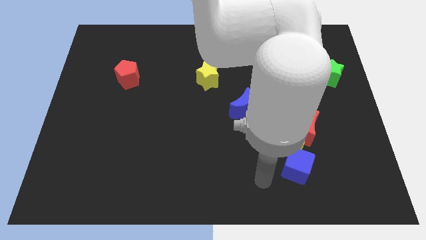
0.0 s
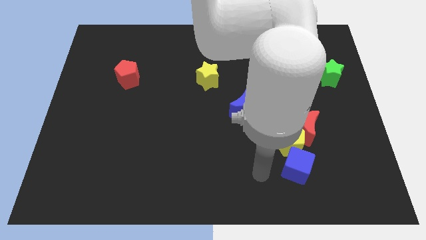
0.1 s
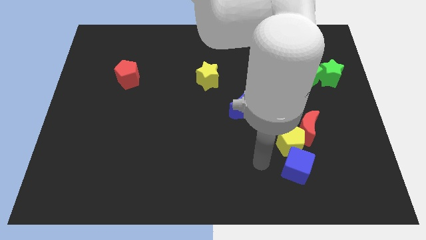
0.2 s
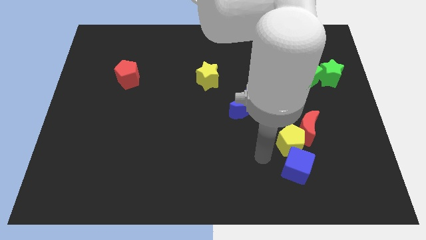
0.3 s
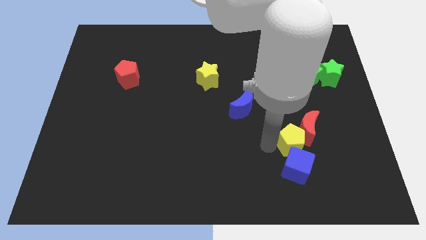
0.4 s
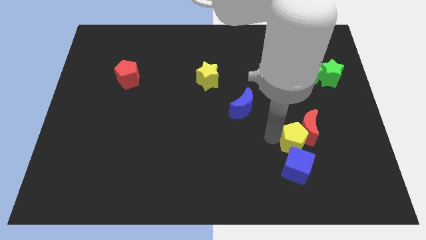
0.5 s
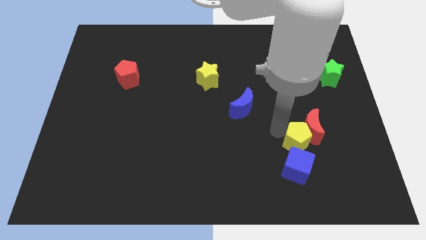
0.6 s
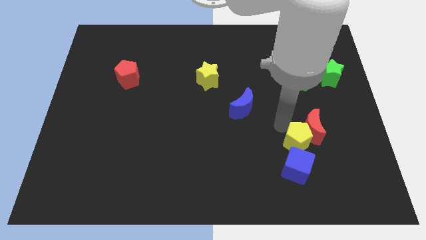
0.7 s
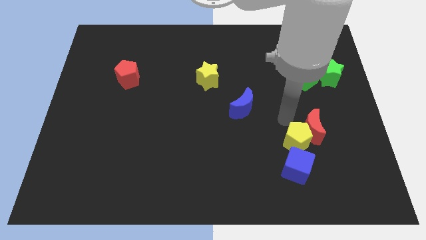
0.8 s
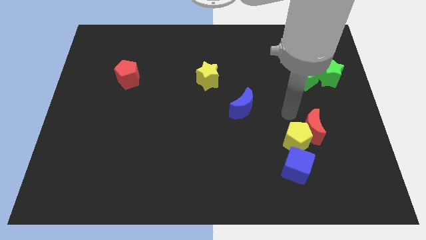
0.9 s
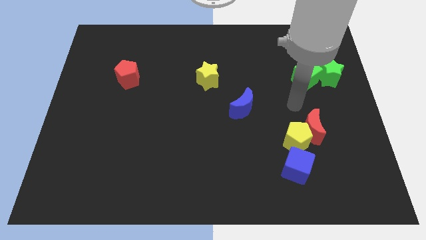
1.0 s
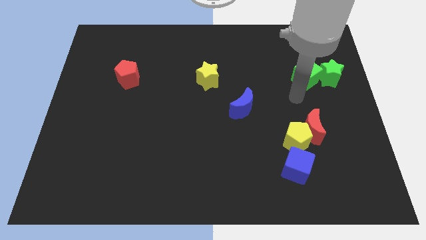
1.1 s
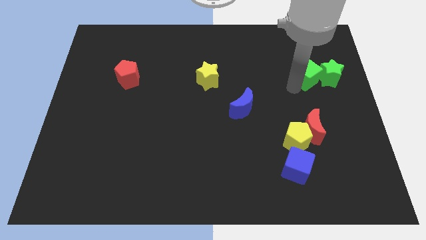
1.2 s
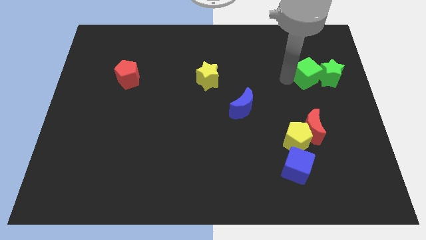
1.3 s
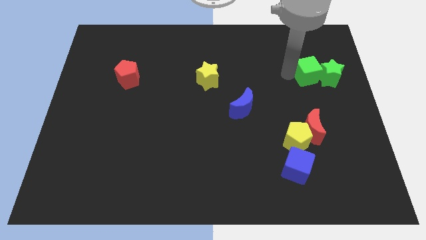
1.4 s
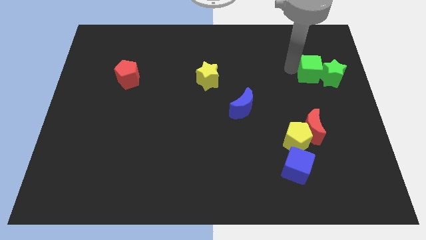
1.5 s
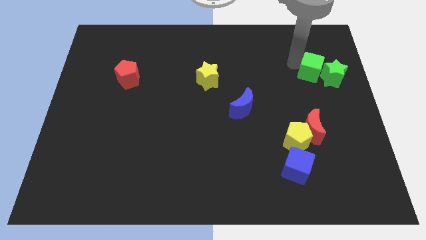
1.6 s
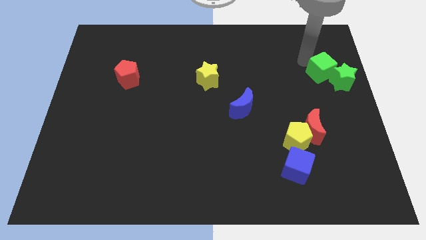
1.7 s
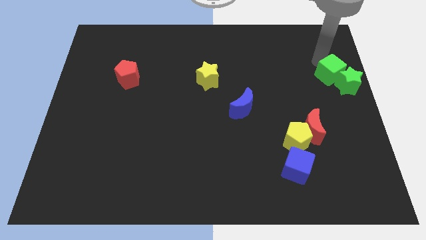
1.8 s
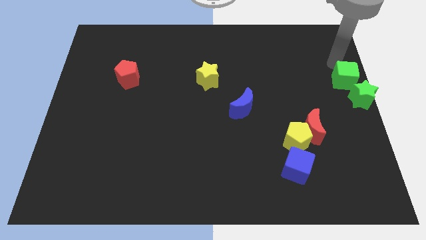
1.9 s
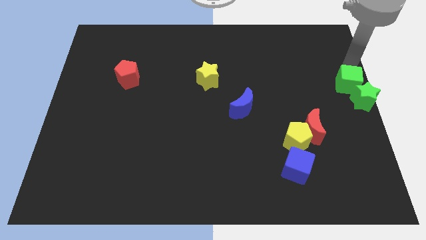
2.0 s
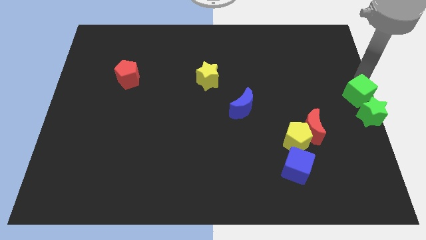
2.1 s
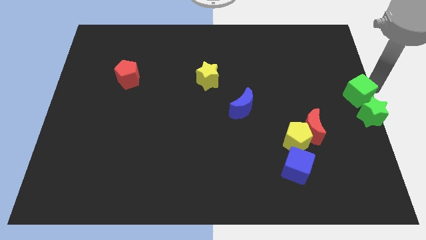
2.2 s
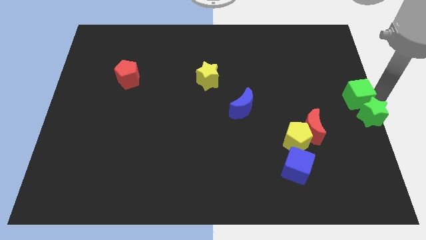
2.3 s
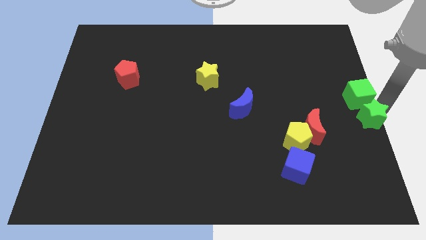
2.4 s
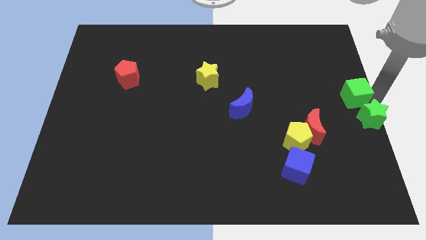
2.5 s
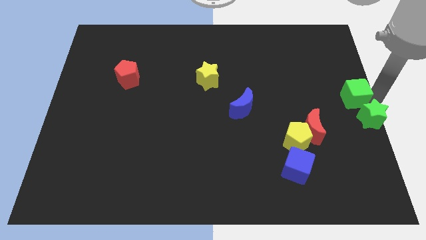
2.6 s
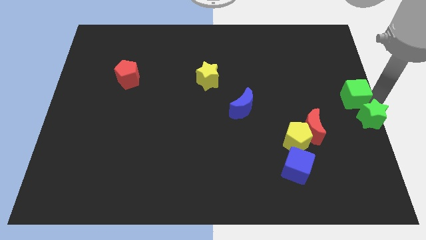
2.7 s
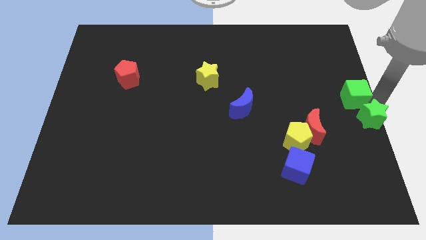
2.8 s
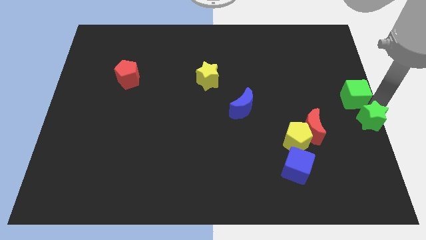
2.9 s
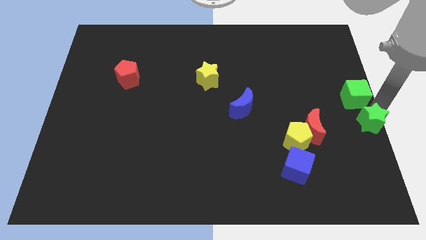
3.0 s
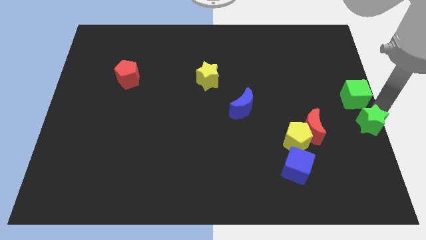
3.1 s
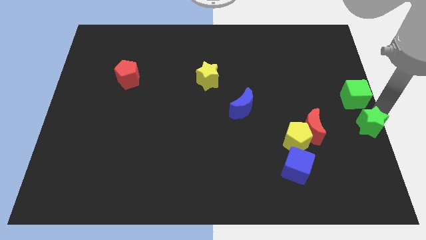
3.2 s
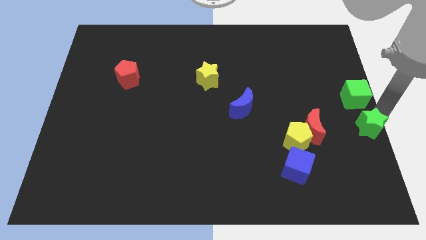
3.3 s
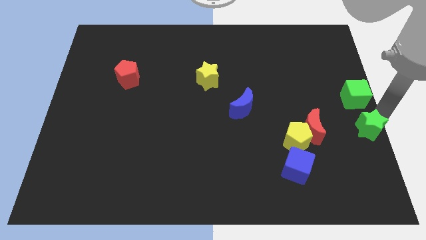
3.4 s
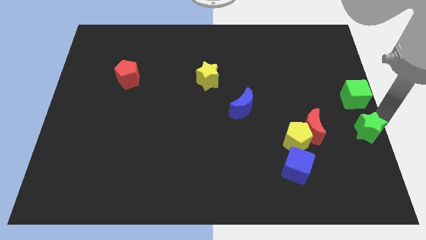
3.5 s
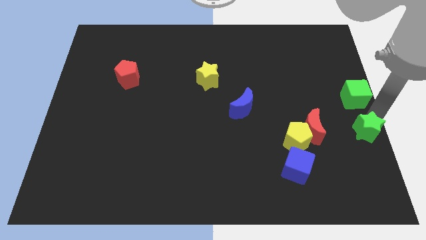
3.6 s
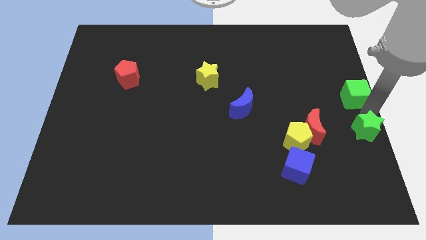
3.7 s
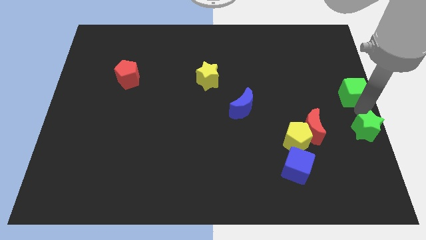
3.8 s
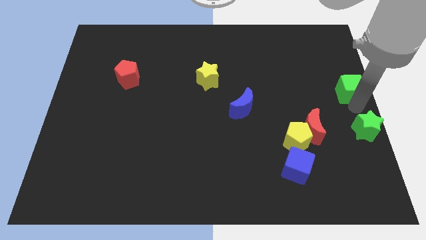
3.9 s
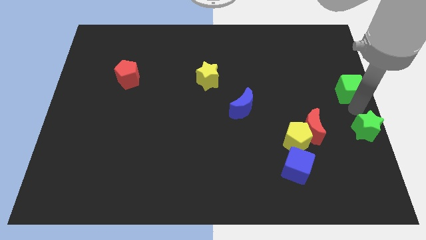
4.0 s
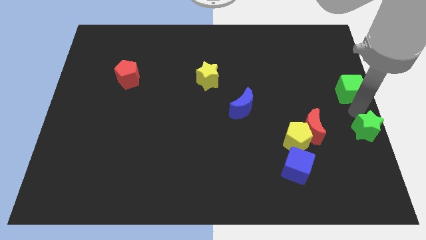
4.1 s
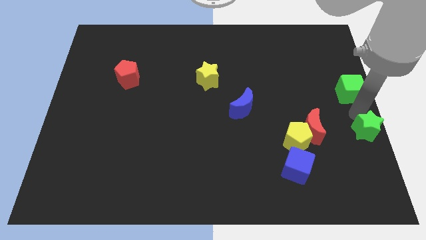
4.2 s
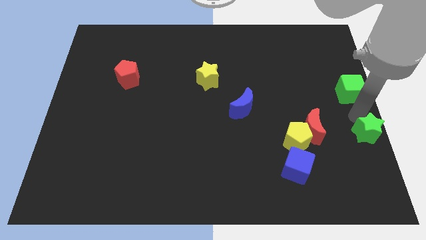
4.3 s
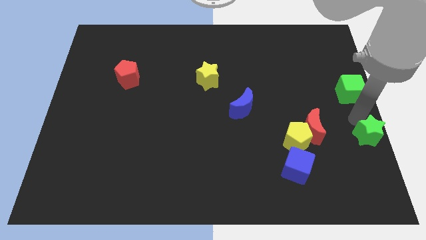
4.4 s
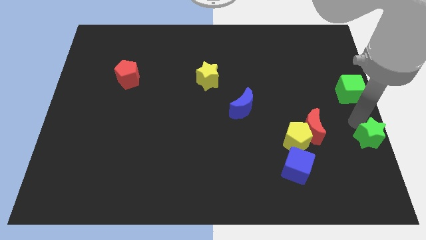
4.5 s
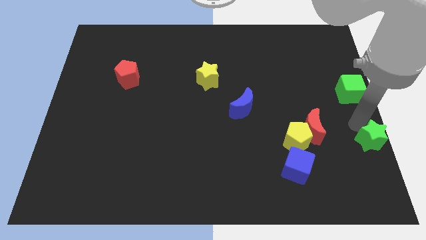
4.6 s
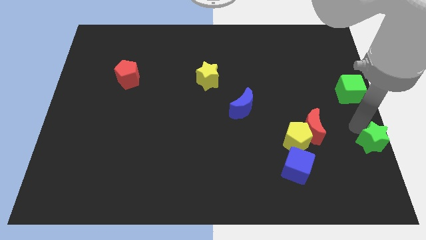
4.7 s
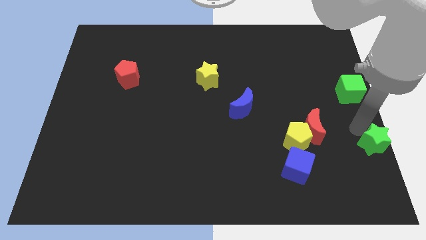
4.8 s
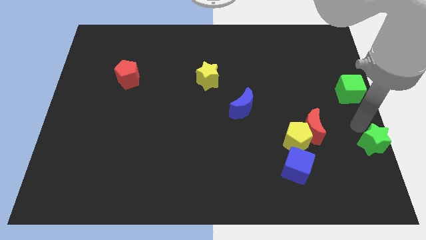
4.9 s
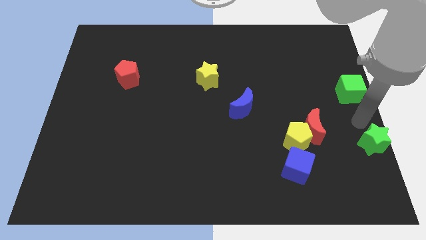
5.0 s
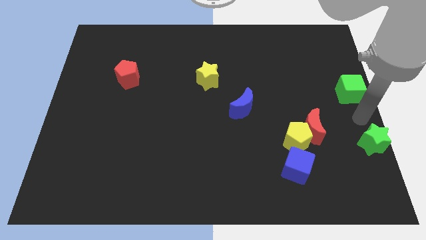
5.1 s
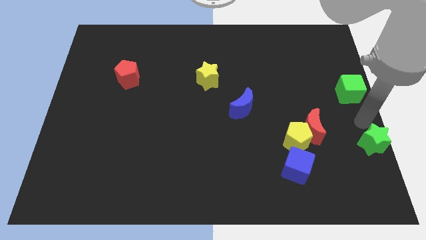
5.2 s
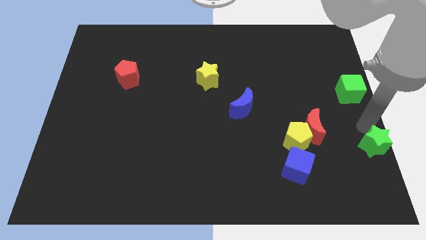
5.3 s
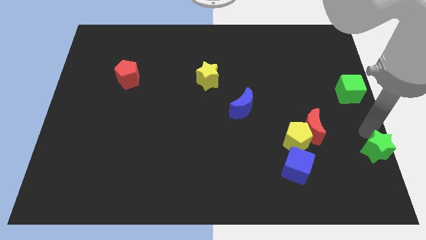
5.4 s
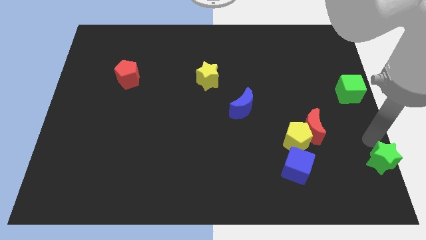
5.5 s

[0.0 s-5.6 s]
move the green star to the lower right corner

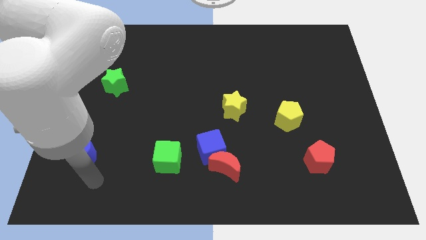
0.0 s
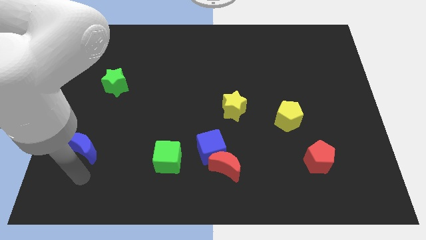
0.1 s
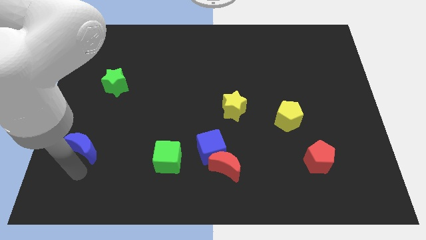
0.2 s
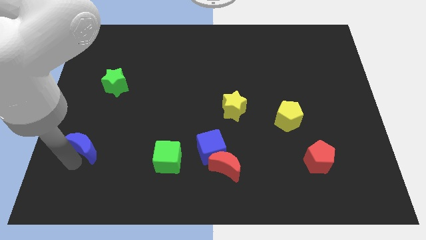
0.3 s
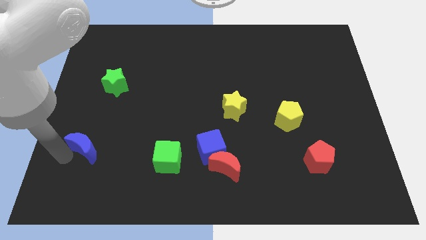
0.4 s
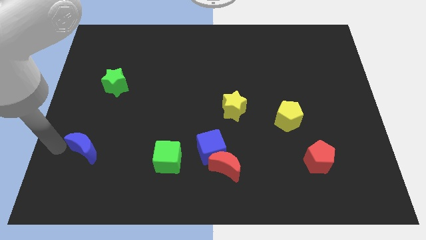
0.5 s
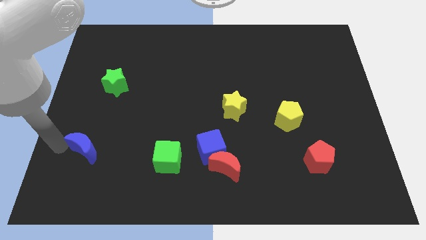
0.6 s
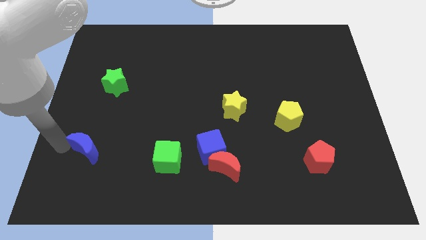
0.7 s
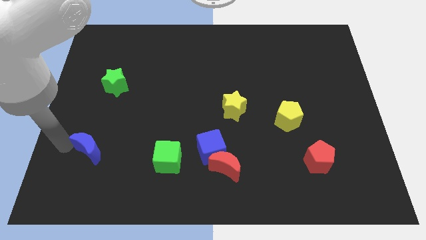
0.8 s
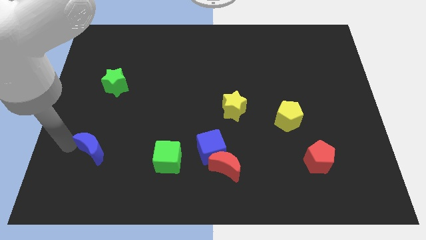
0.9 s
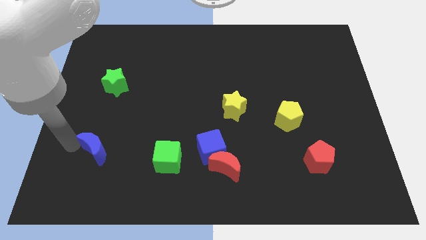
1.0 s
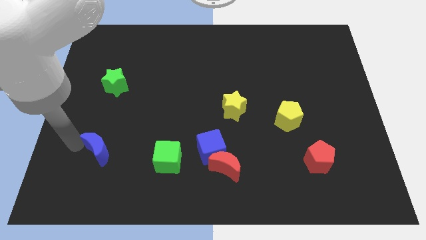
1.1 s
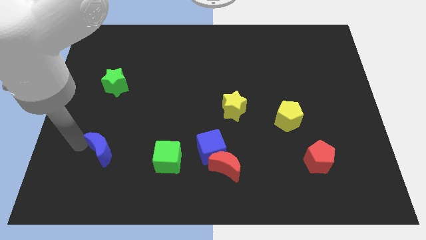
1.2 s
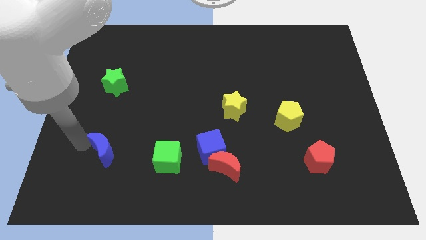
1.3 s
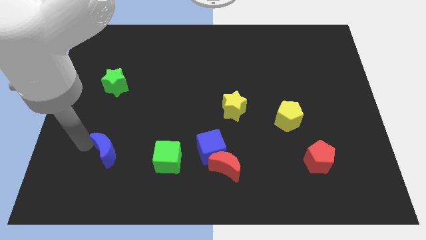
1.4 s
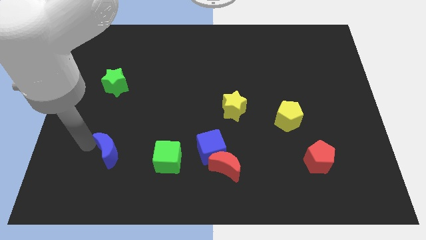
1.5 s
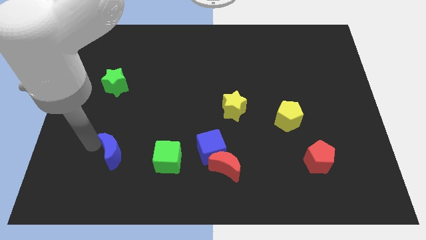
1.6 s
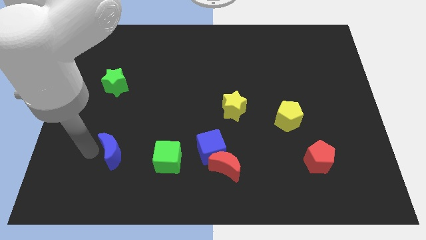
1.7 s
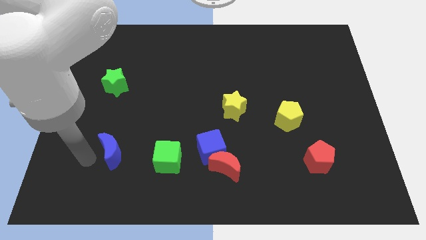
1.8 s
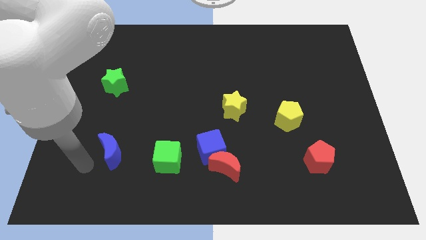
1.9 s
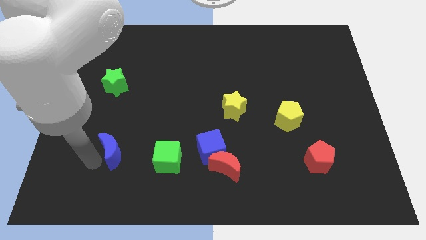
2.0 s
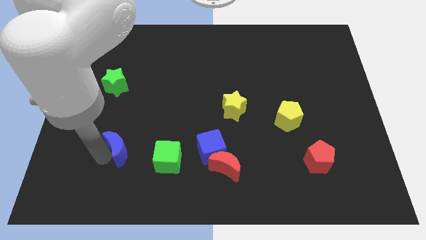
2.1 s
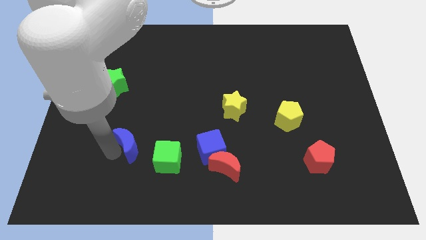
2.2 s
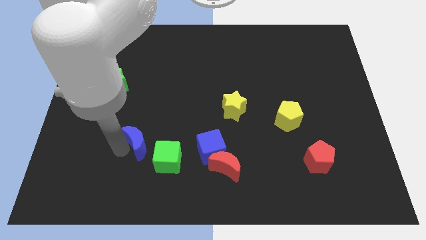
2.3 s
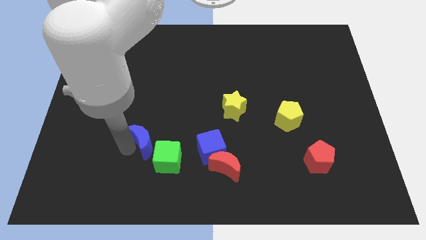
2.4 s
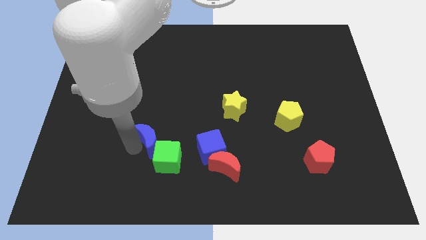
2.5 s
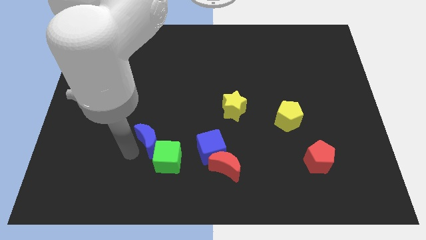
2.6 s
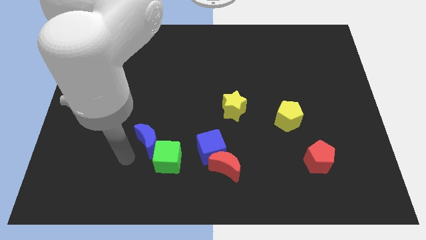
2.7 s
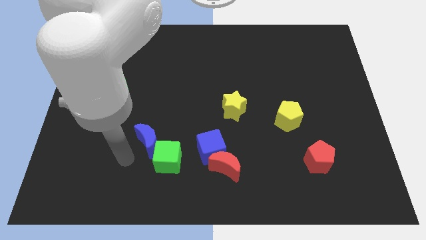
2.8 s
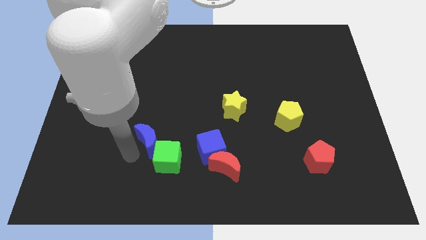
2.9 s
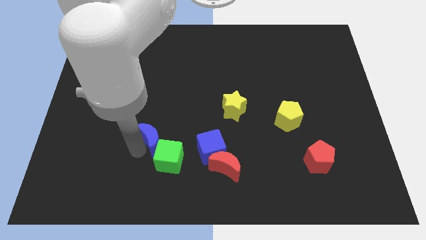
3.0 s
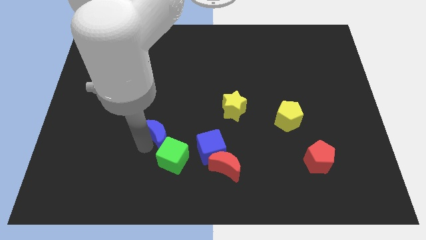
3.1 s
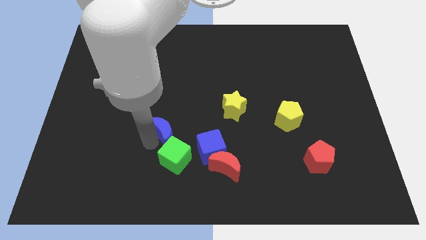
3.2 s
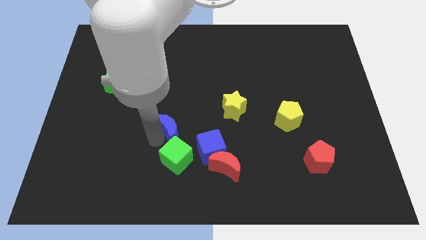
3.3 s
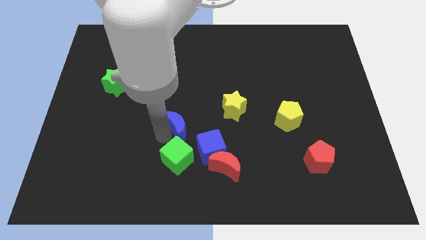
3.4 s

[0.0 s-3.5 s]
slide the blue moon to the center of the board
